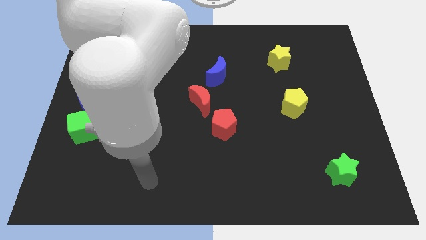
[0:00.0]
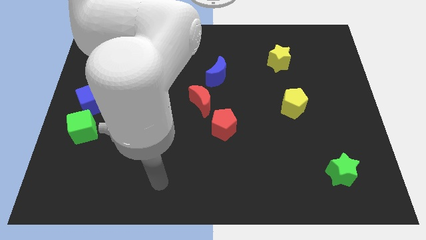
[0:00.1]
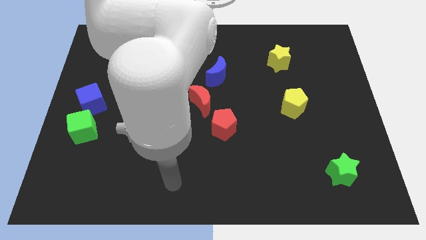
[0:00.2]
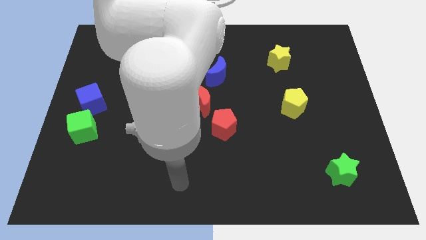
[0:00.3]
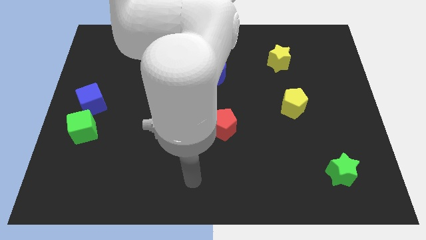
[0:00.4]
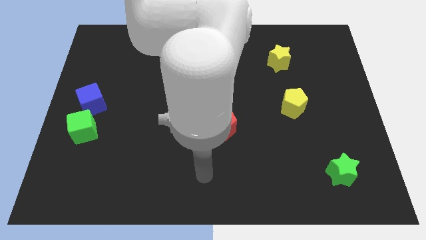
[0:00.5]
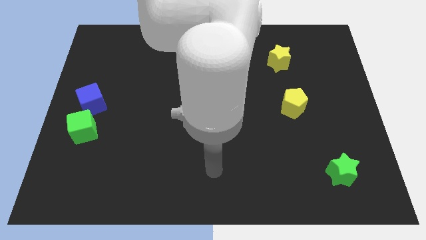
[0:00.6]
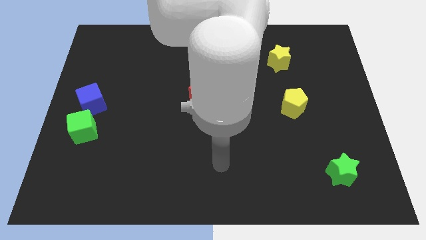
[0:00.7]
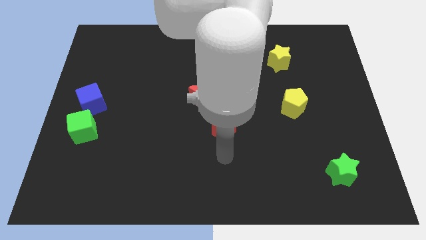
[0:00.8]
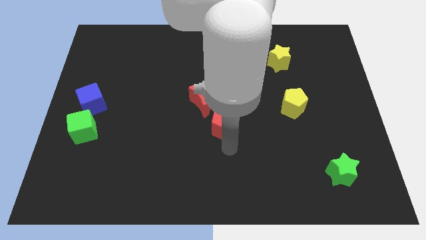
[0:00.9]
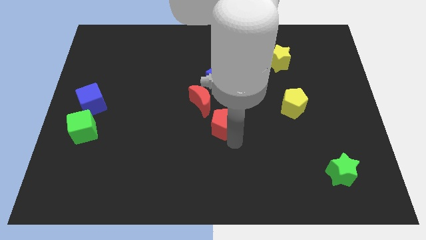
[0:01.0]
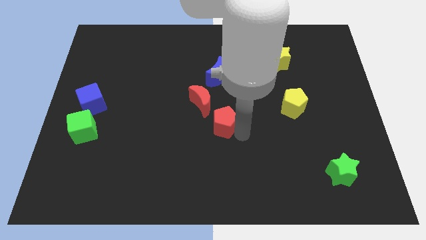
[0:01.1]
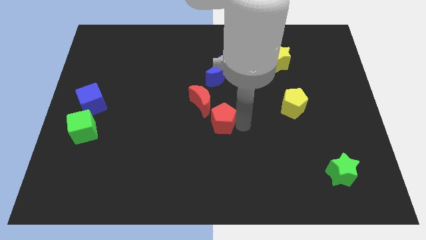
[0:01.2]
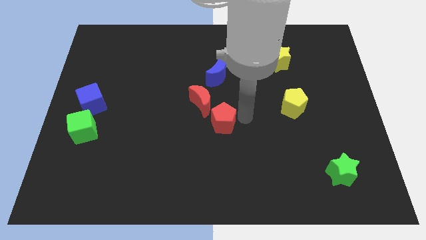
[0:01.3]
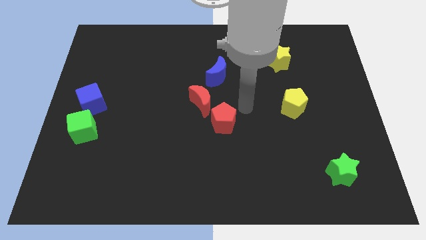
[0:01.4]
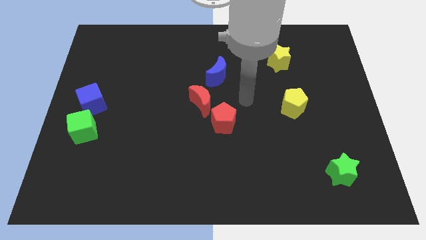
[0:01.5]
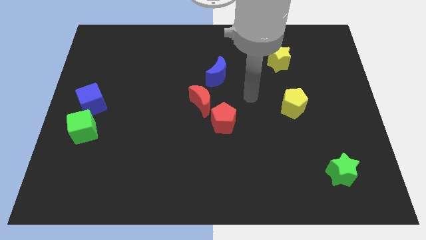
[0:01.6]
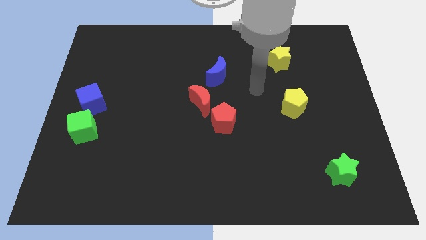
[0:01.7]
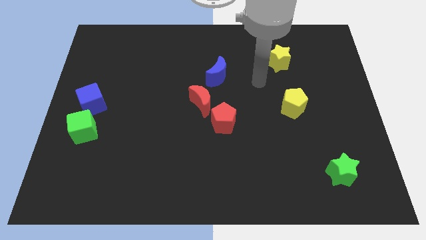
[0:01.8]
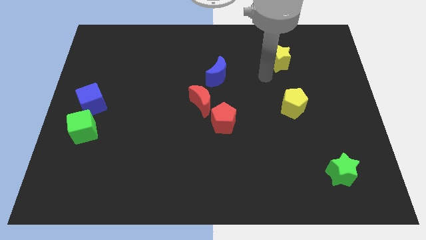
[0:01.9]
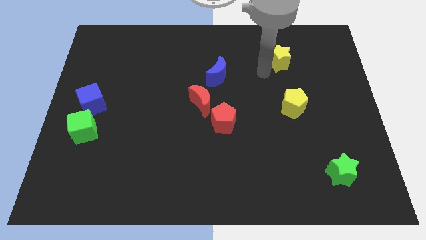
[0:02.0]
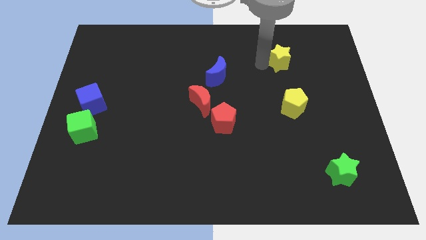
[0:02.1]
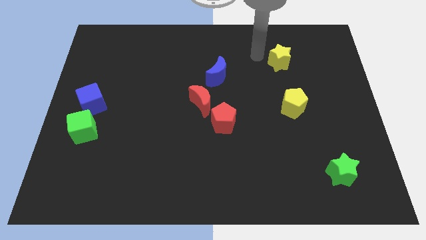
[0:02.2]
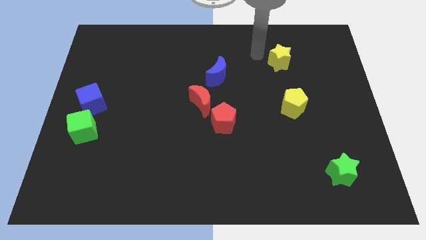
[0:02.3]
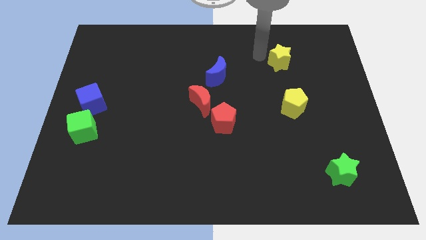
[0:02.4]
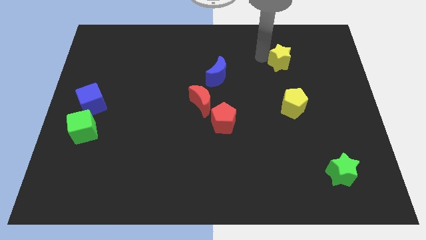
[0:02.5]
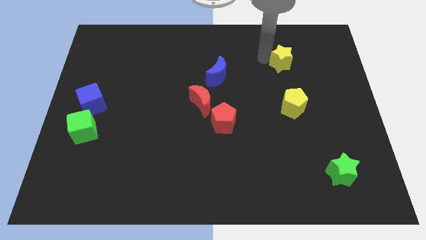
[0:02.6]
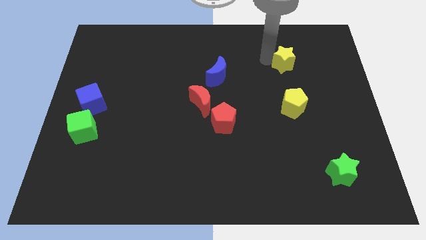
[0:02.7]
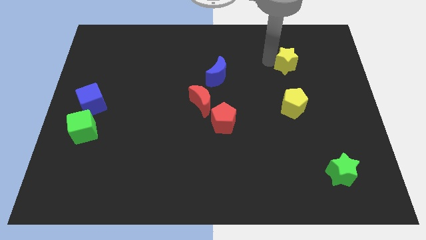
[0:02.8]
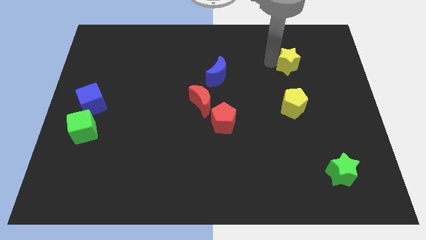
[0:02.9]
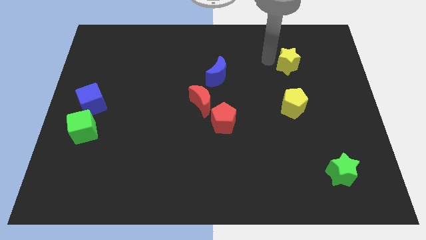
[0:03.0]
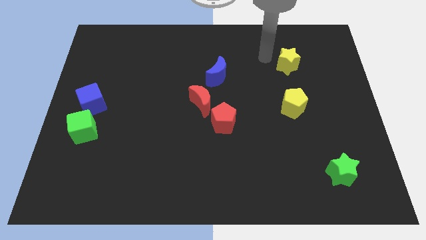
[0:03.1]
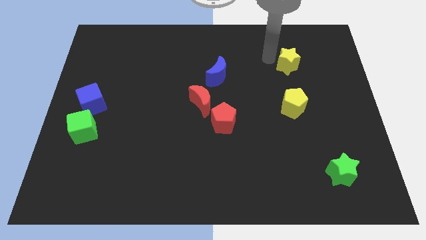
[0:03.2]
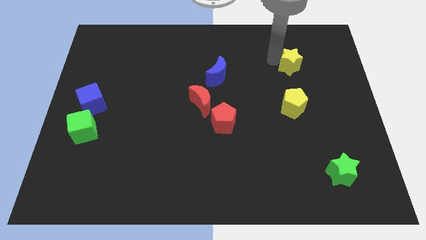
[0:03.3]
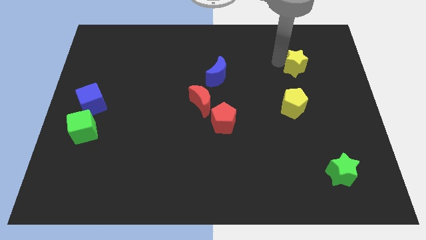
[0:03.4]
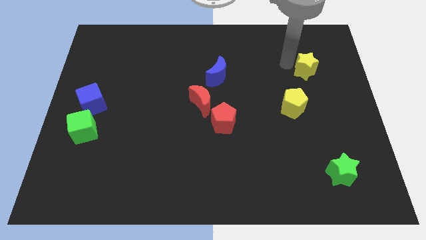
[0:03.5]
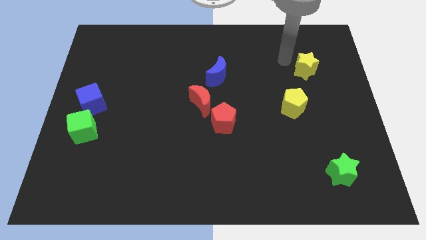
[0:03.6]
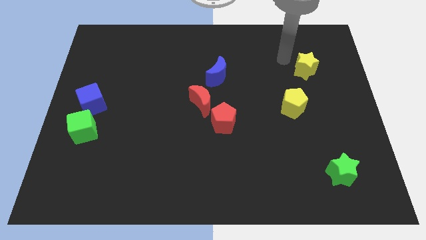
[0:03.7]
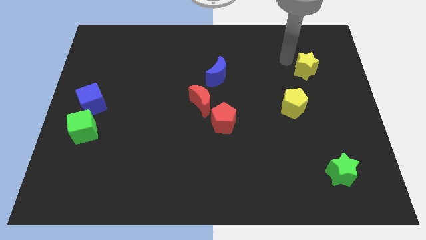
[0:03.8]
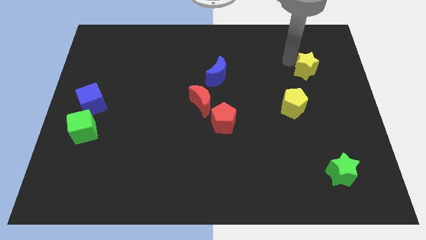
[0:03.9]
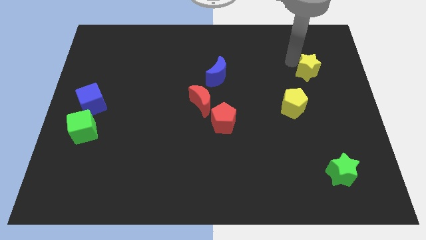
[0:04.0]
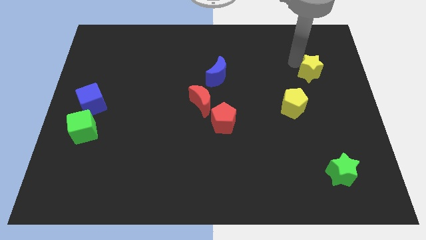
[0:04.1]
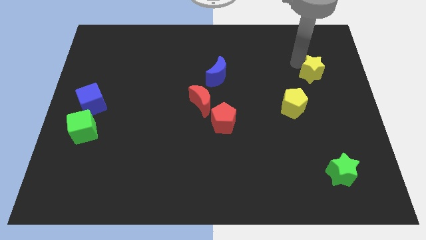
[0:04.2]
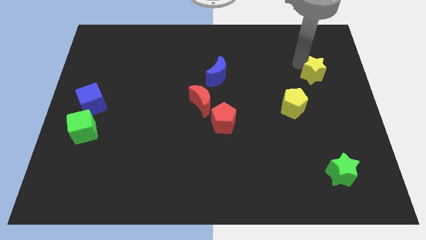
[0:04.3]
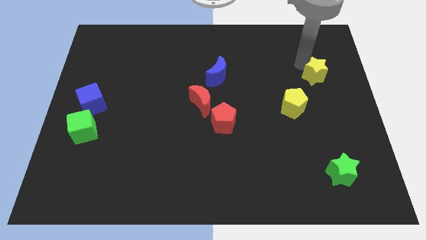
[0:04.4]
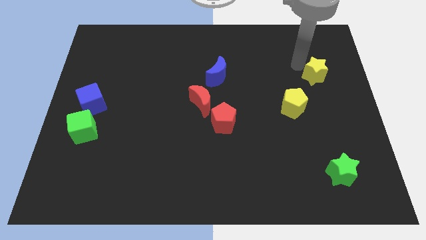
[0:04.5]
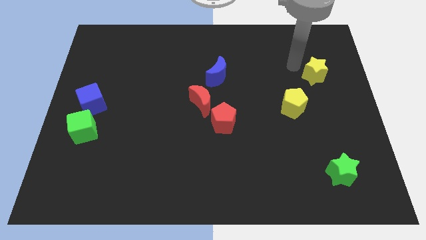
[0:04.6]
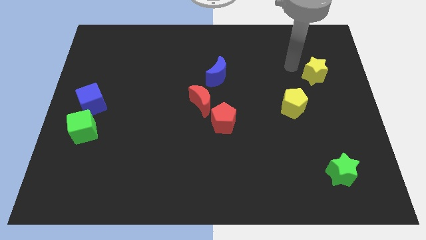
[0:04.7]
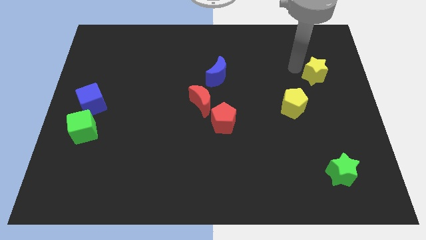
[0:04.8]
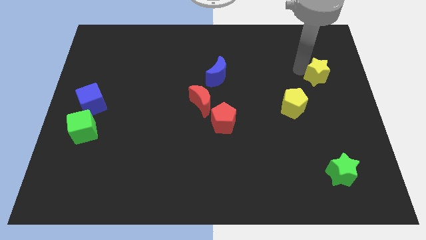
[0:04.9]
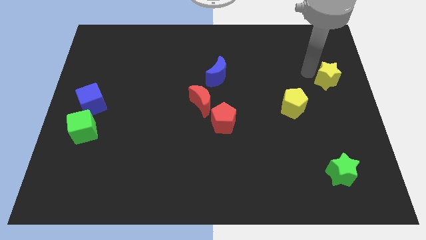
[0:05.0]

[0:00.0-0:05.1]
move the yellow star to the right side

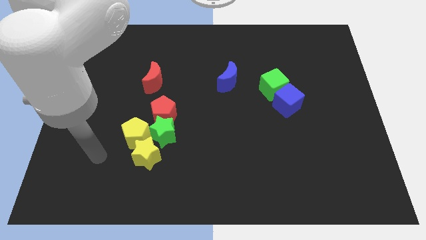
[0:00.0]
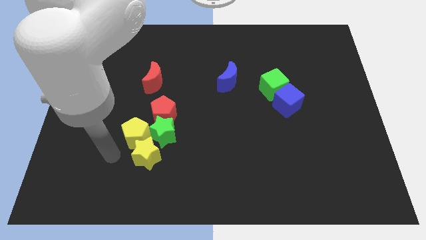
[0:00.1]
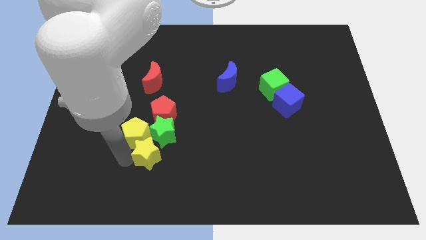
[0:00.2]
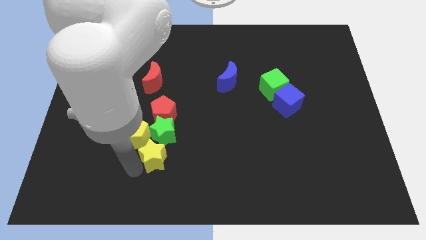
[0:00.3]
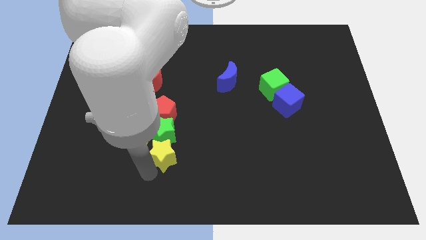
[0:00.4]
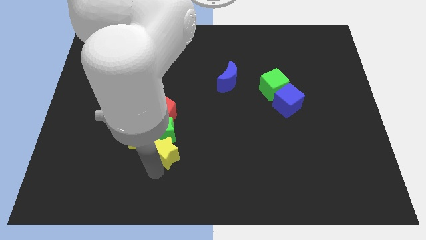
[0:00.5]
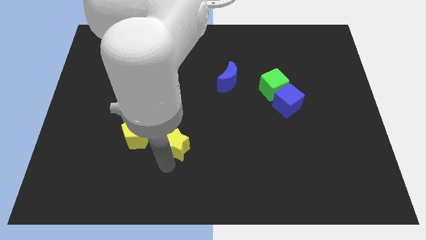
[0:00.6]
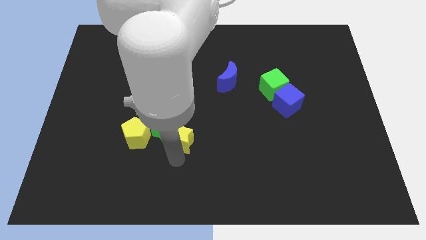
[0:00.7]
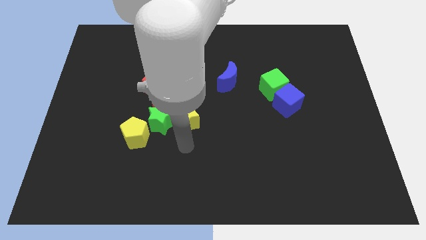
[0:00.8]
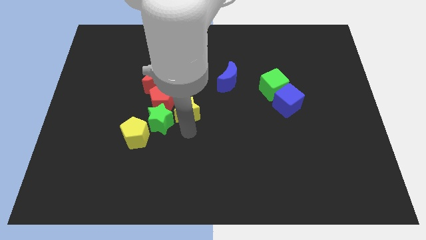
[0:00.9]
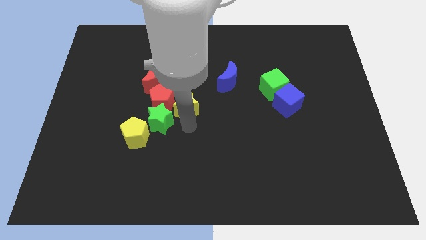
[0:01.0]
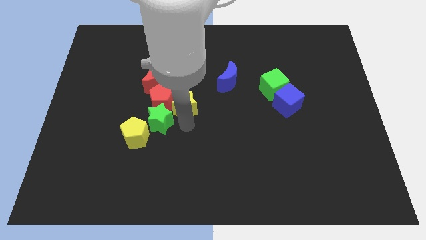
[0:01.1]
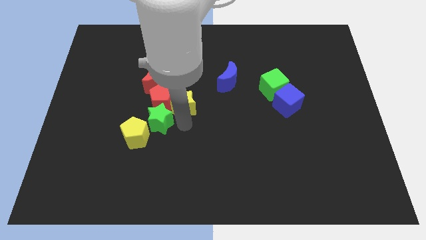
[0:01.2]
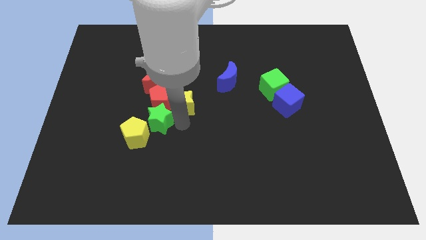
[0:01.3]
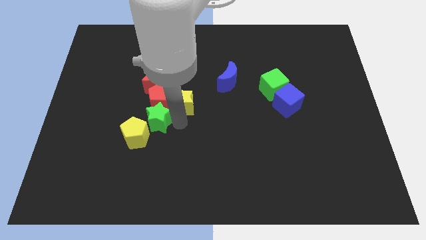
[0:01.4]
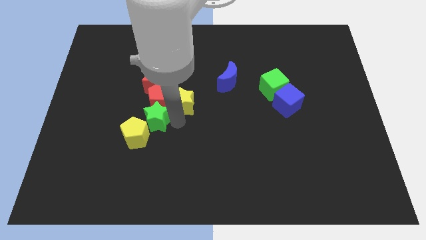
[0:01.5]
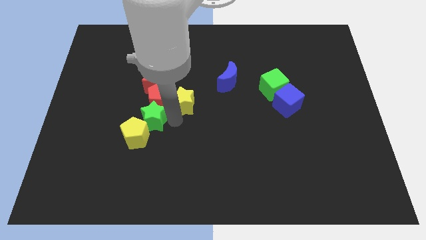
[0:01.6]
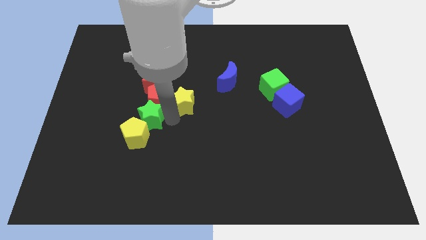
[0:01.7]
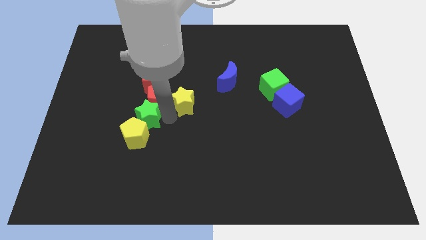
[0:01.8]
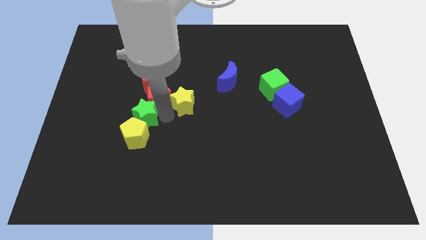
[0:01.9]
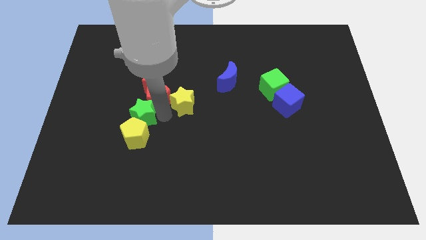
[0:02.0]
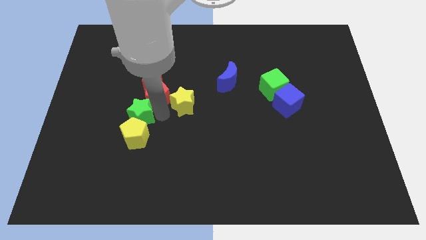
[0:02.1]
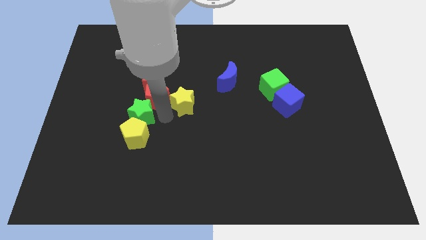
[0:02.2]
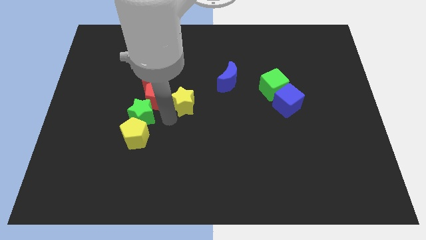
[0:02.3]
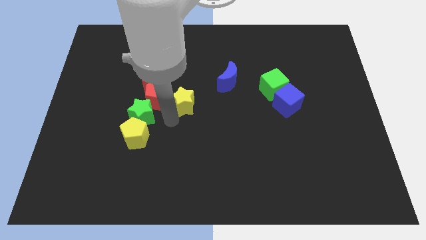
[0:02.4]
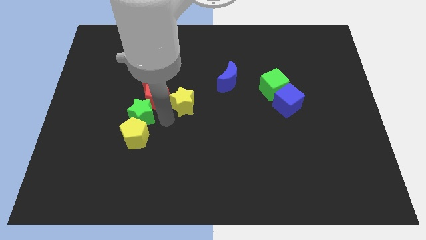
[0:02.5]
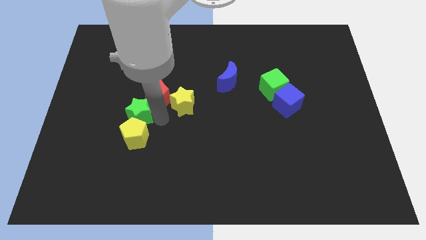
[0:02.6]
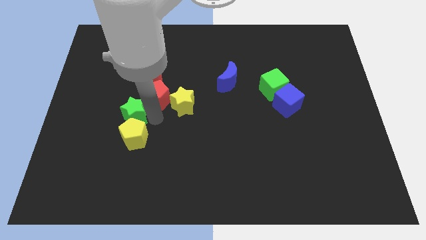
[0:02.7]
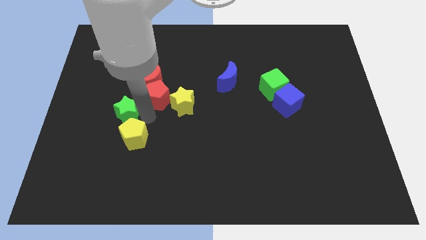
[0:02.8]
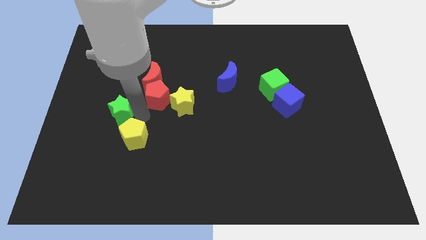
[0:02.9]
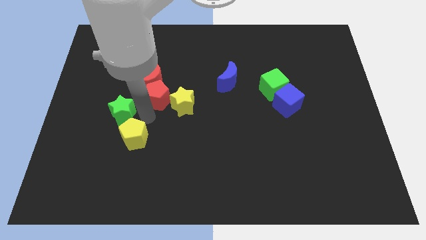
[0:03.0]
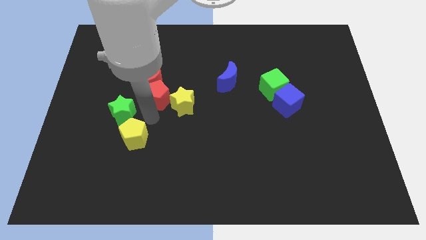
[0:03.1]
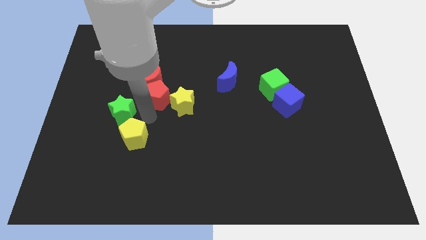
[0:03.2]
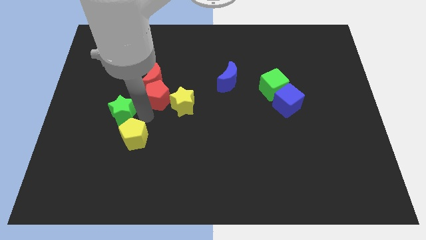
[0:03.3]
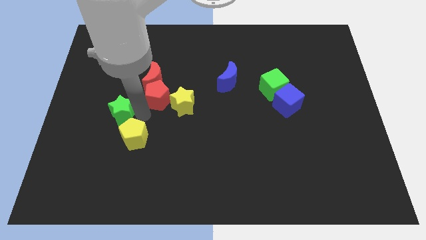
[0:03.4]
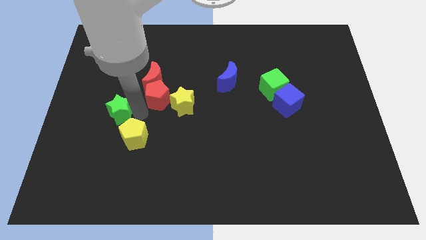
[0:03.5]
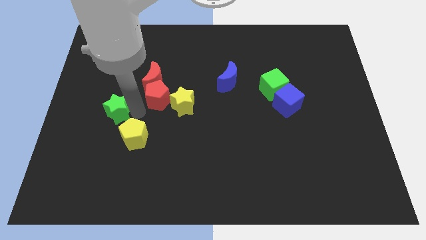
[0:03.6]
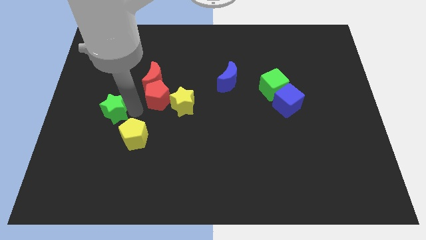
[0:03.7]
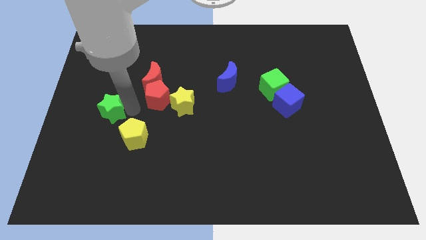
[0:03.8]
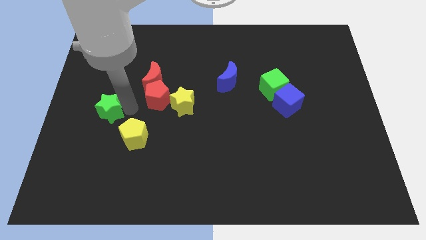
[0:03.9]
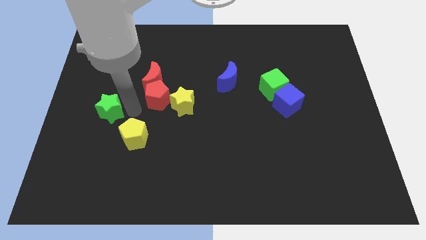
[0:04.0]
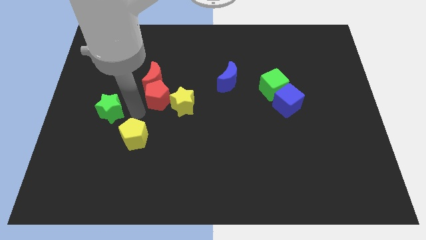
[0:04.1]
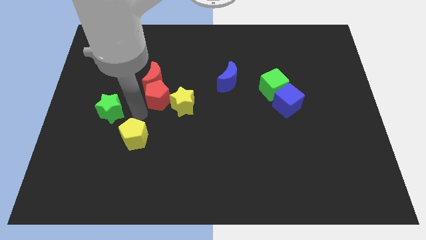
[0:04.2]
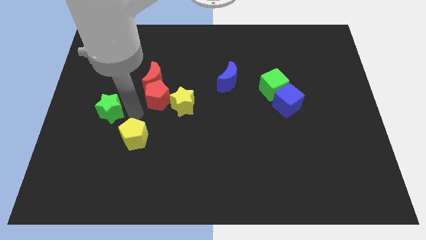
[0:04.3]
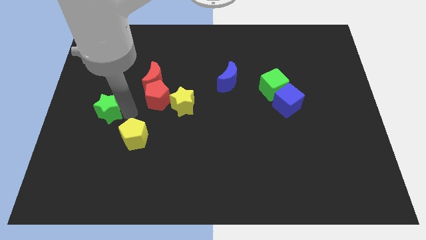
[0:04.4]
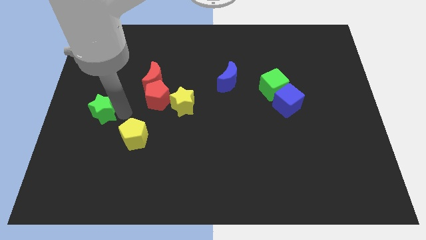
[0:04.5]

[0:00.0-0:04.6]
slide the green star to the left side of the board
